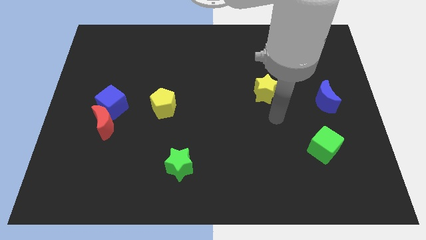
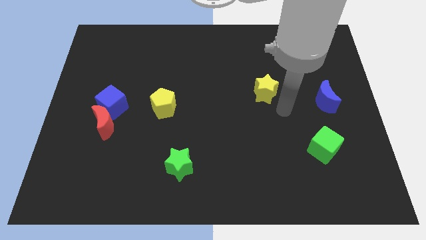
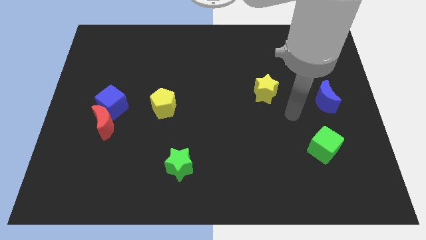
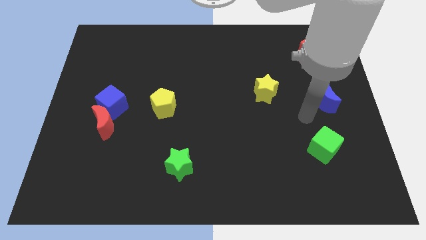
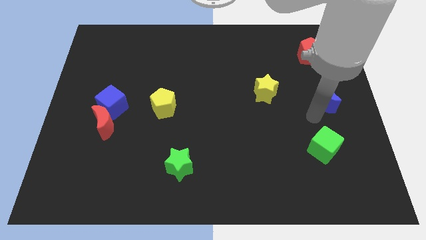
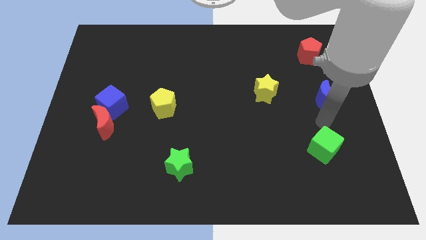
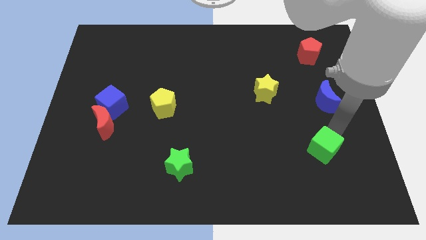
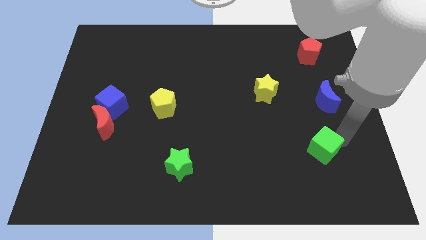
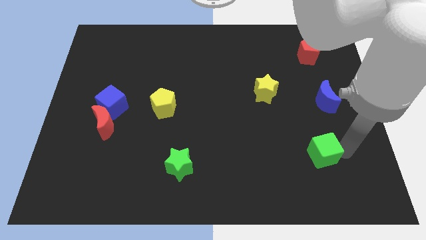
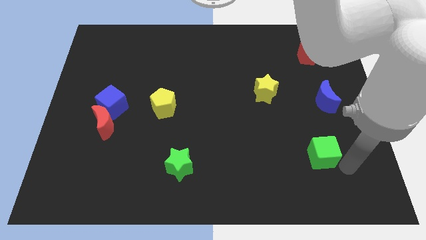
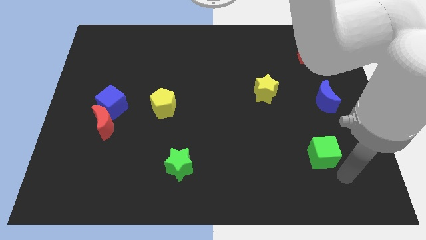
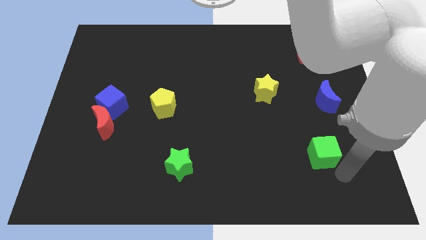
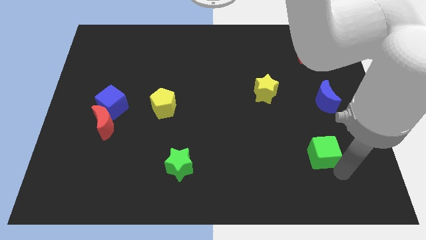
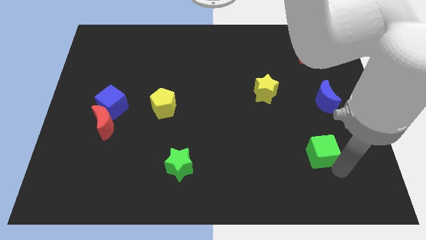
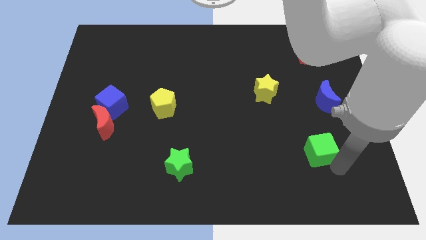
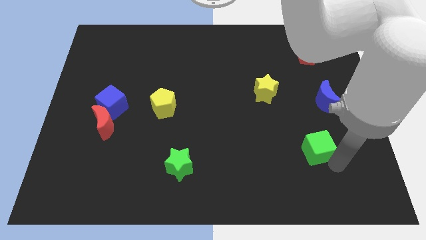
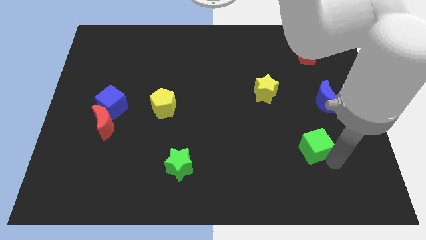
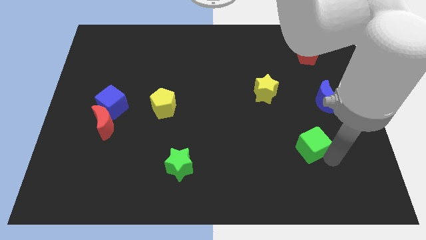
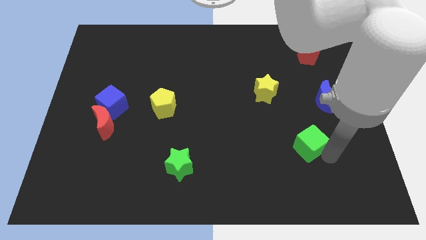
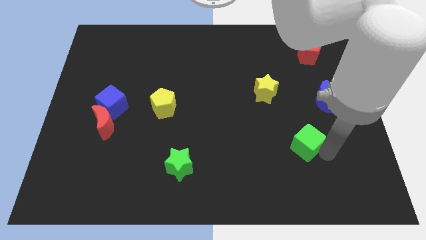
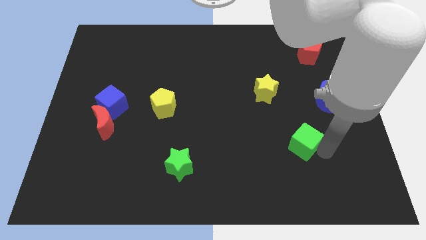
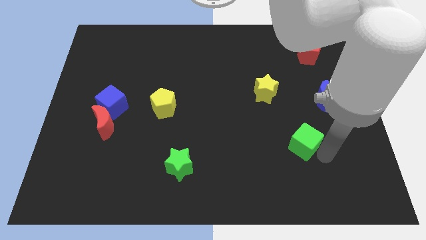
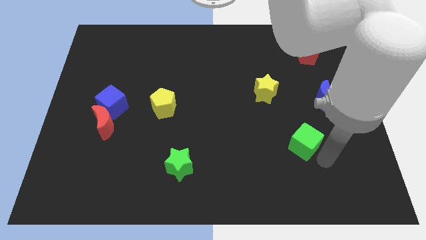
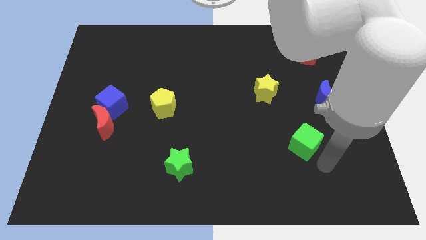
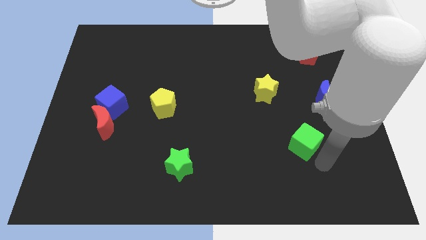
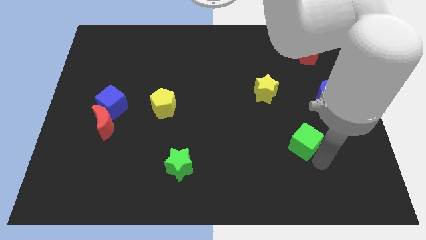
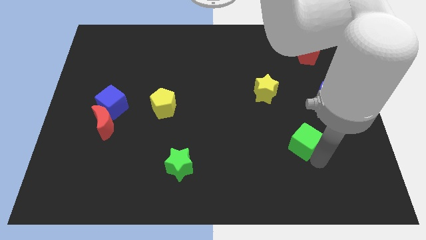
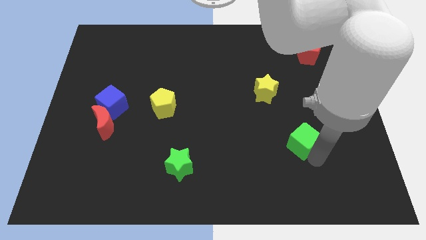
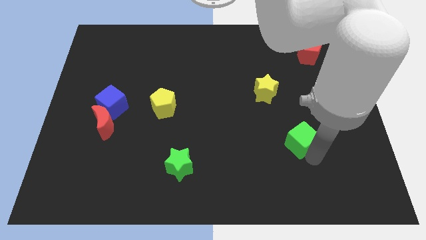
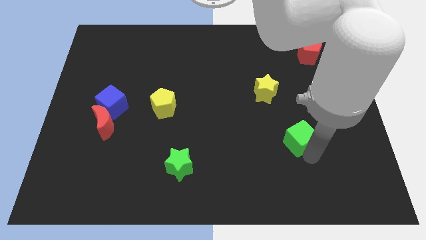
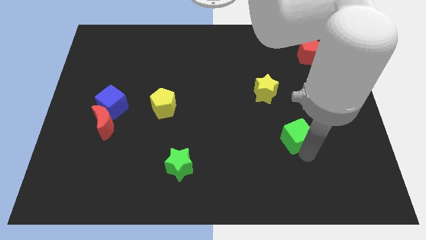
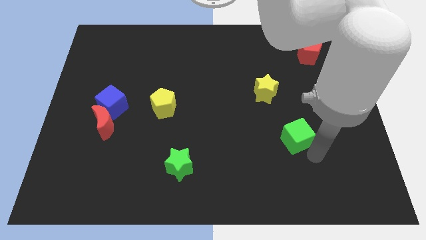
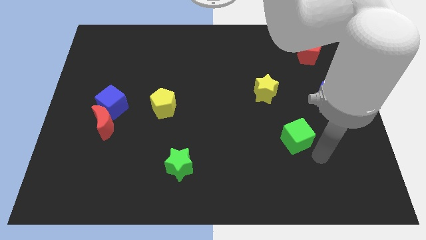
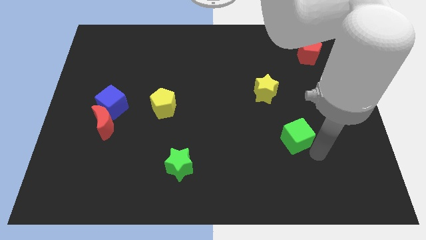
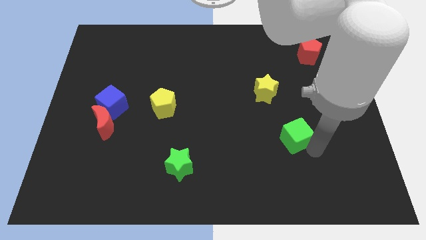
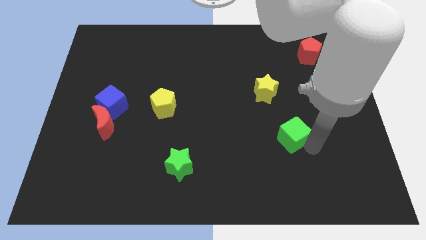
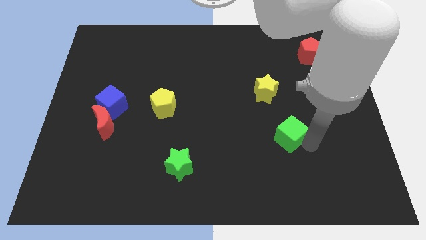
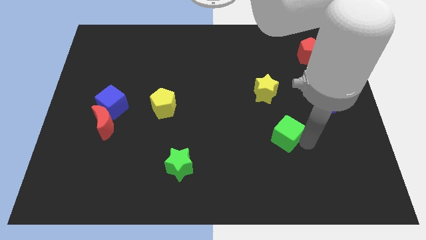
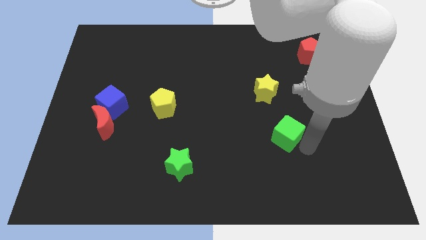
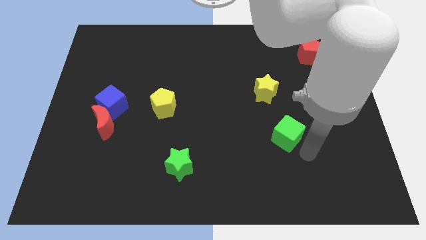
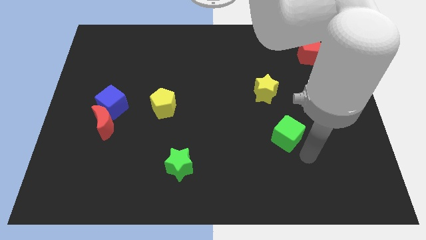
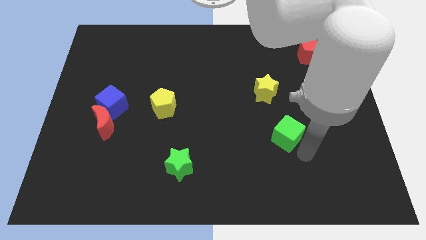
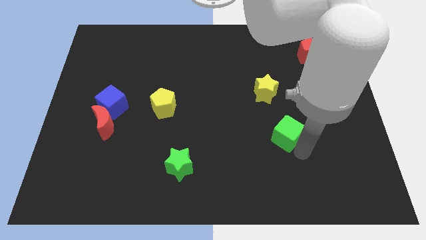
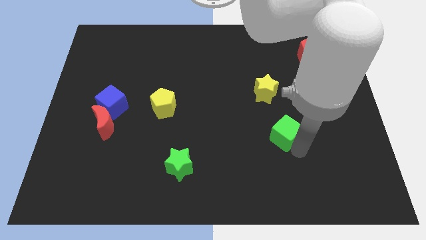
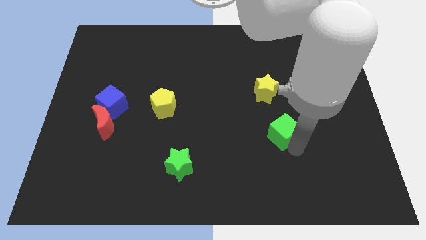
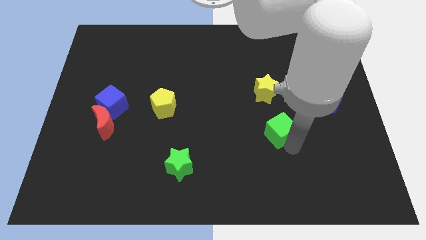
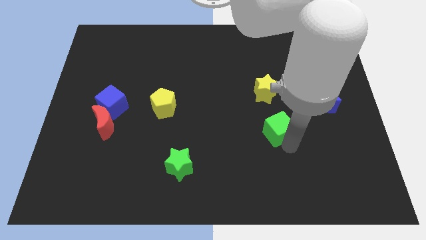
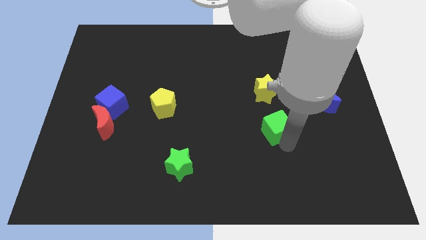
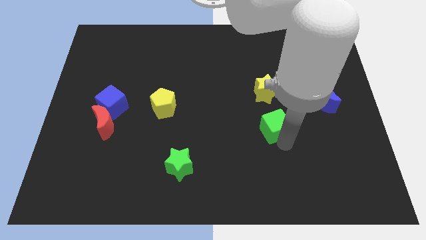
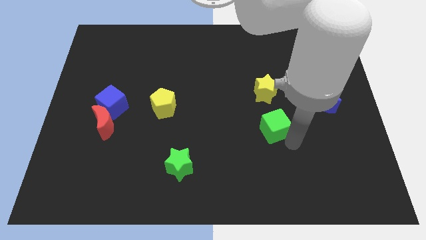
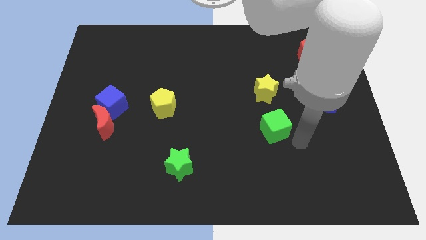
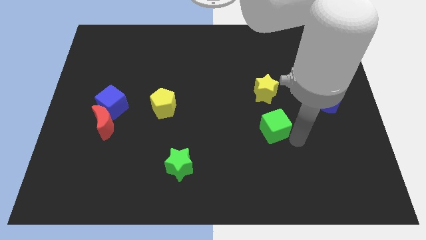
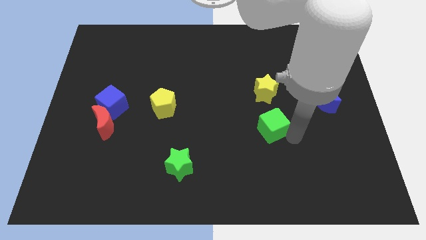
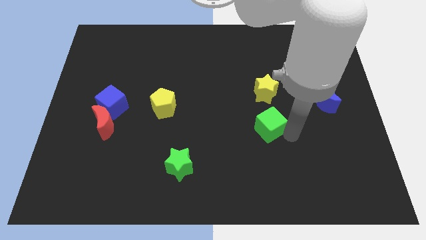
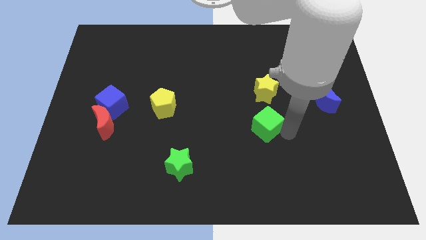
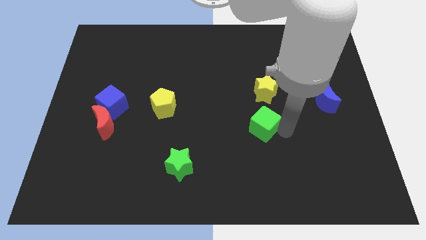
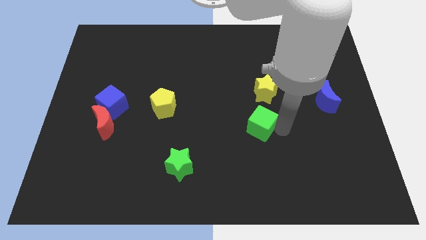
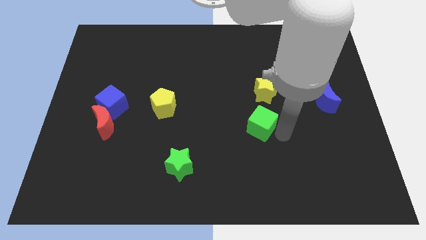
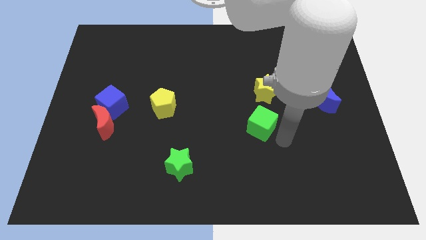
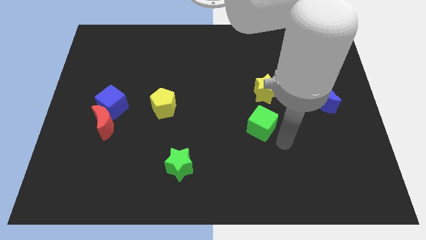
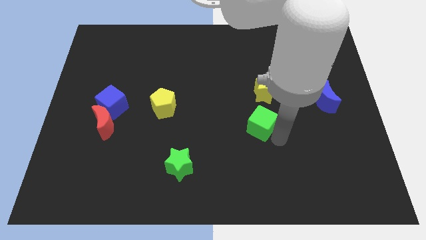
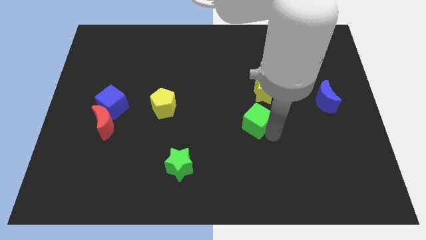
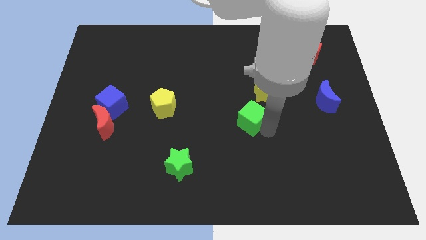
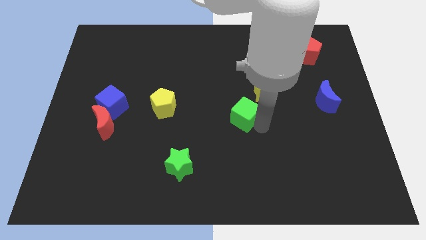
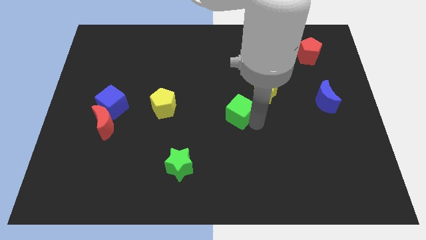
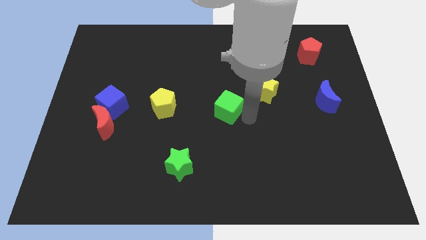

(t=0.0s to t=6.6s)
move the green cube just right of the yellow pentagon
